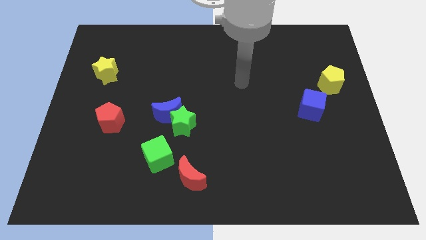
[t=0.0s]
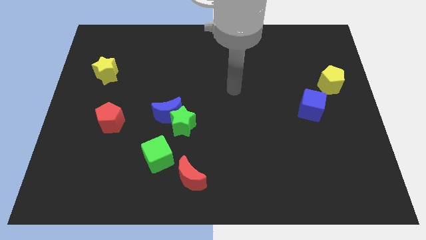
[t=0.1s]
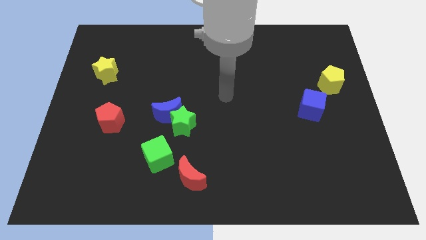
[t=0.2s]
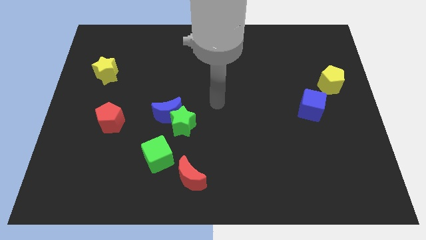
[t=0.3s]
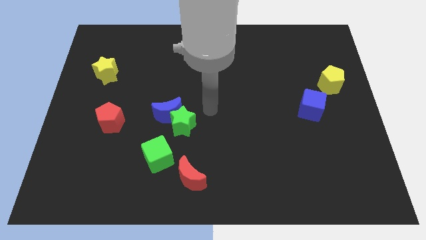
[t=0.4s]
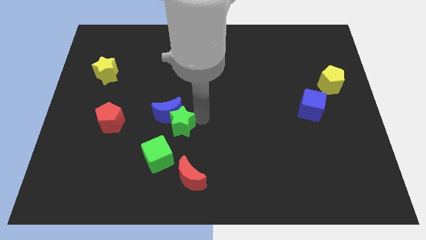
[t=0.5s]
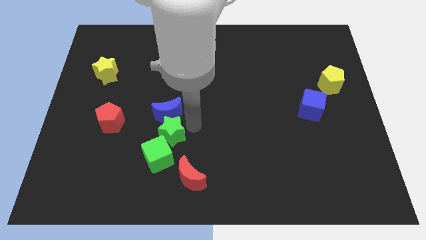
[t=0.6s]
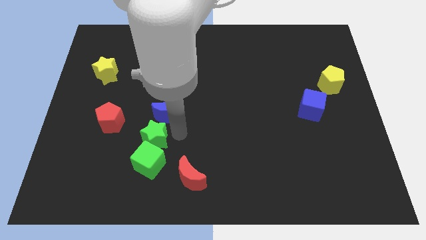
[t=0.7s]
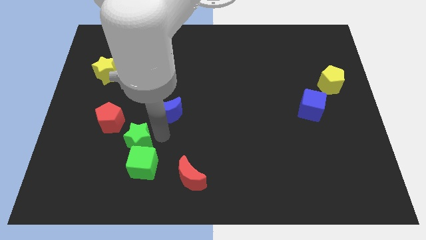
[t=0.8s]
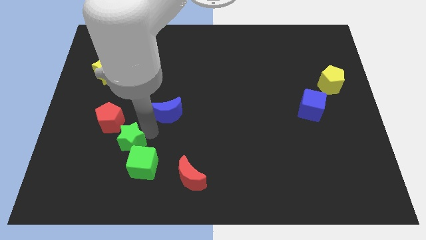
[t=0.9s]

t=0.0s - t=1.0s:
pull the blue moon apart from the green star

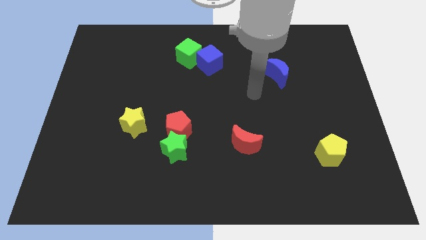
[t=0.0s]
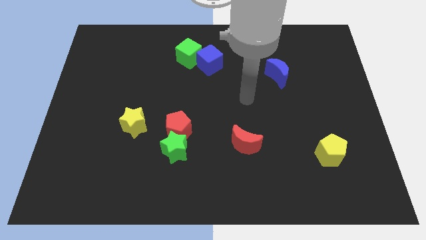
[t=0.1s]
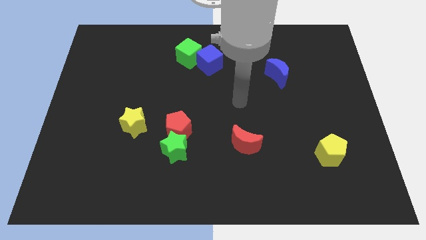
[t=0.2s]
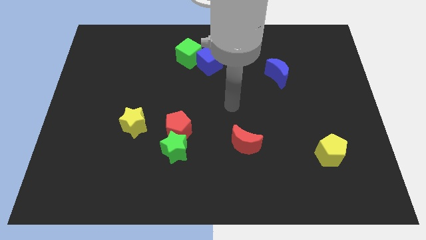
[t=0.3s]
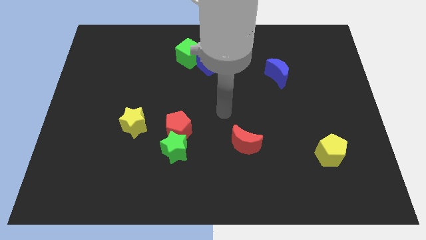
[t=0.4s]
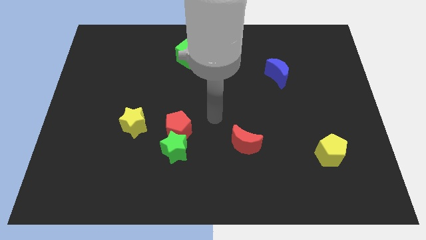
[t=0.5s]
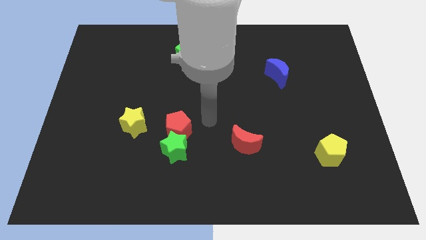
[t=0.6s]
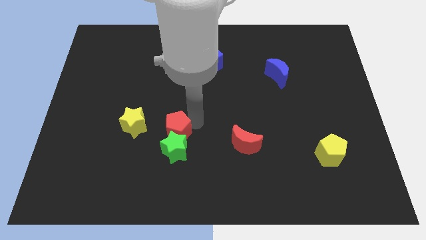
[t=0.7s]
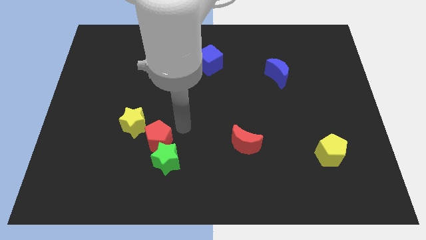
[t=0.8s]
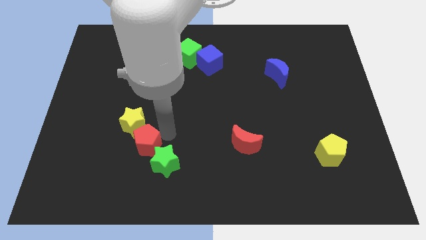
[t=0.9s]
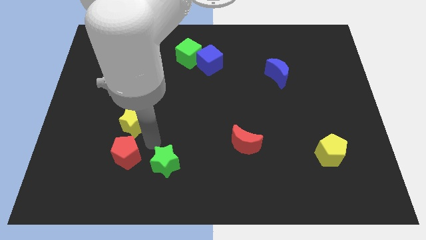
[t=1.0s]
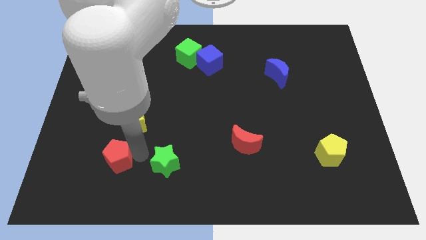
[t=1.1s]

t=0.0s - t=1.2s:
separate the green star from the red pentagon

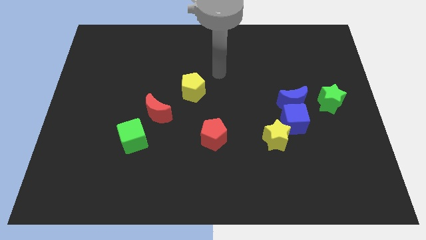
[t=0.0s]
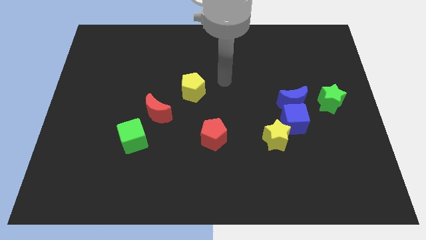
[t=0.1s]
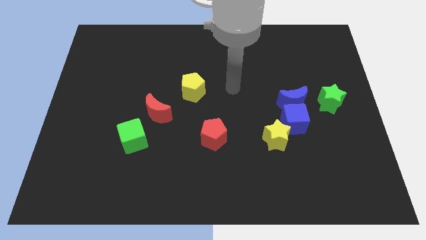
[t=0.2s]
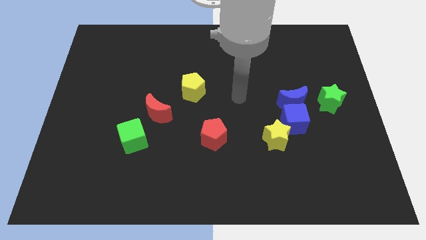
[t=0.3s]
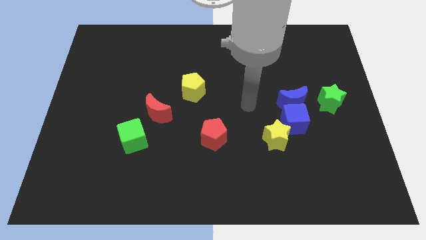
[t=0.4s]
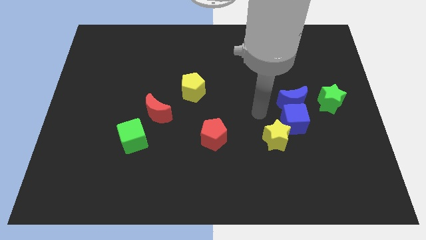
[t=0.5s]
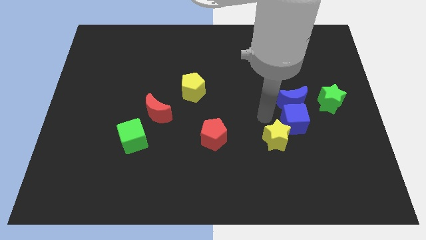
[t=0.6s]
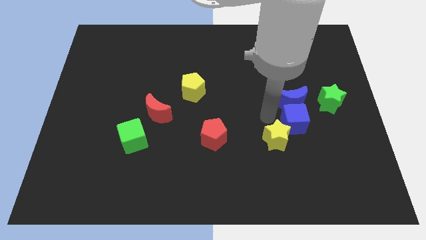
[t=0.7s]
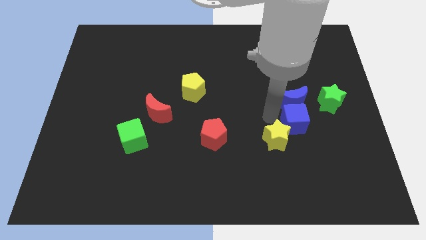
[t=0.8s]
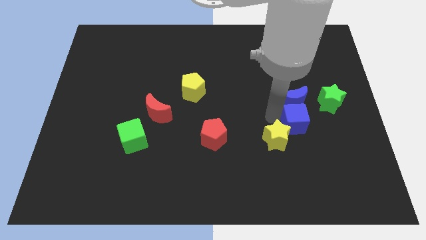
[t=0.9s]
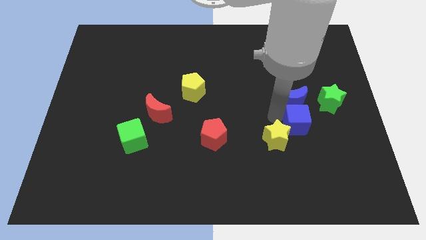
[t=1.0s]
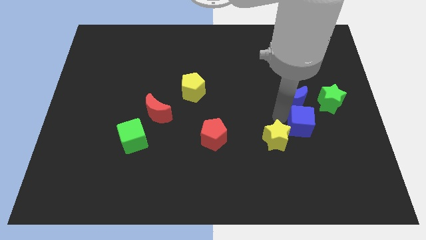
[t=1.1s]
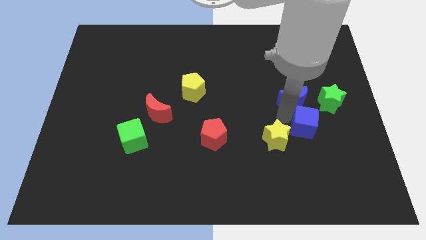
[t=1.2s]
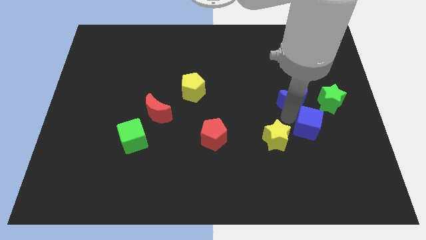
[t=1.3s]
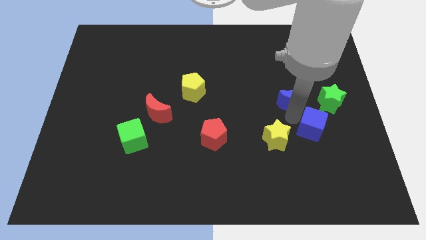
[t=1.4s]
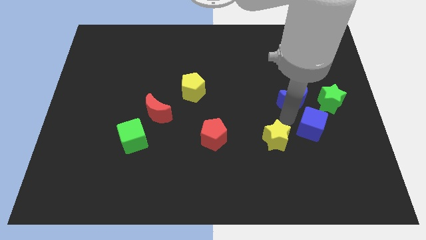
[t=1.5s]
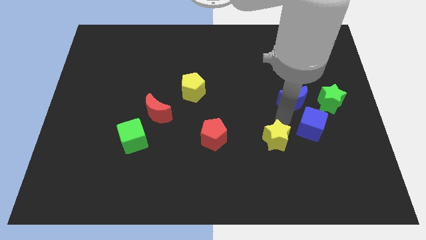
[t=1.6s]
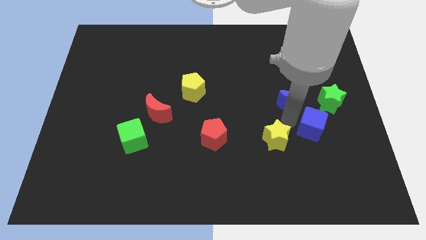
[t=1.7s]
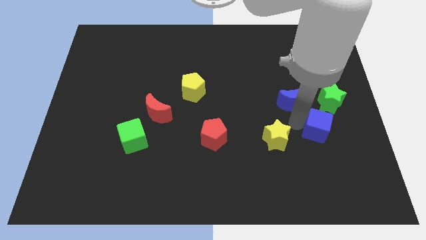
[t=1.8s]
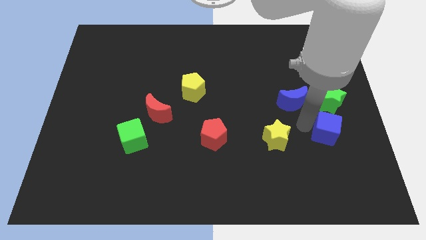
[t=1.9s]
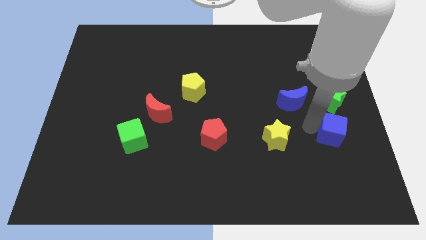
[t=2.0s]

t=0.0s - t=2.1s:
move the blue cube away from the blue moon and yellow star

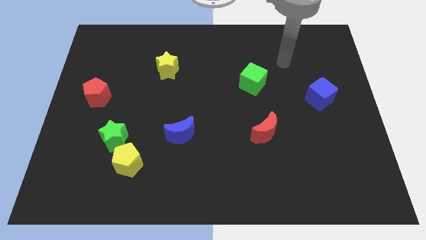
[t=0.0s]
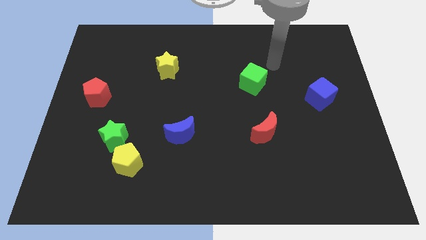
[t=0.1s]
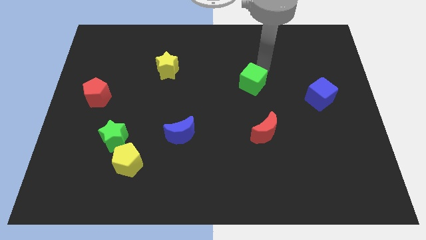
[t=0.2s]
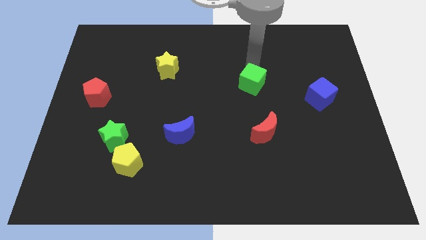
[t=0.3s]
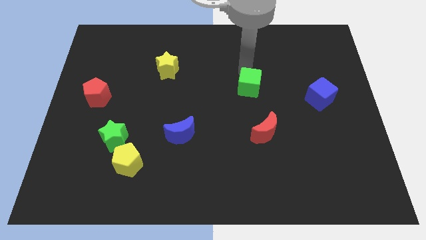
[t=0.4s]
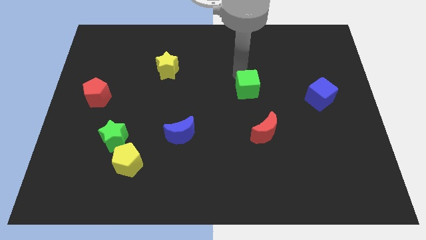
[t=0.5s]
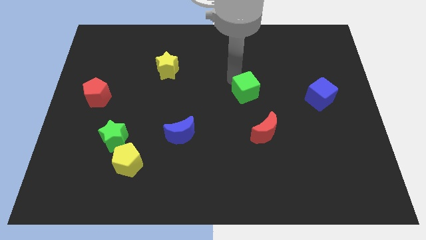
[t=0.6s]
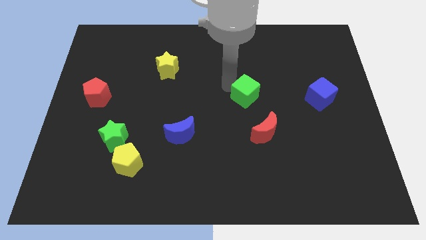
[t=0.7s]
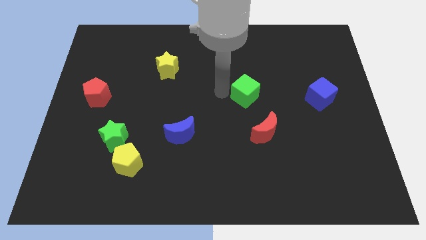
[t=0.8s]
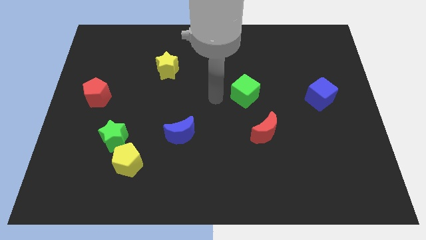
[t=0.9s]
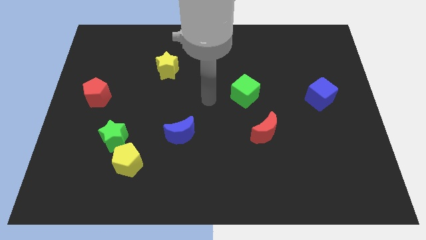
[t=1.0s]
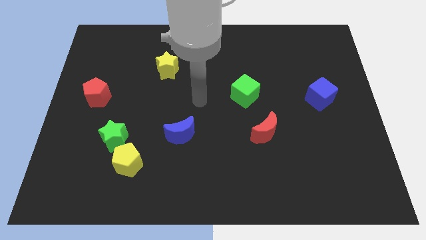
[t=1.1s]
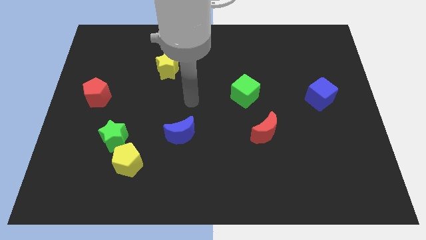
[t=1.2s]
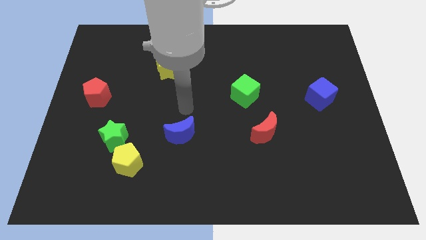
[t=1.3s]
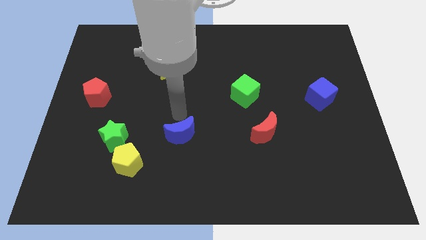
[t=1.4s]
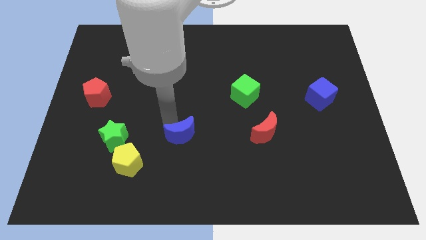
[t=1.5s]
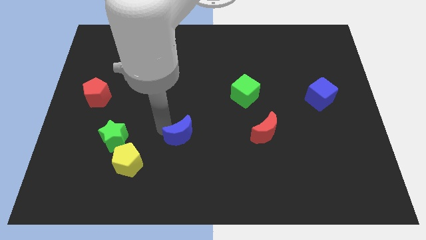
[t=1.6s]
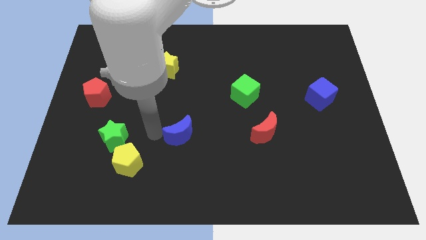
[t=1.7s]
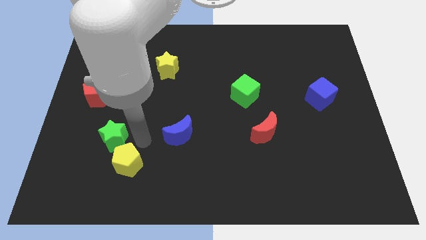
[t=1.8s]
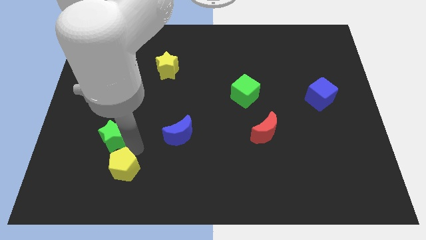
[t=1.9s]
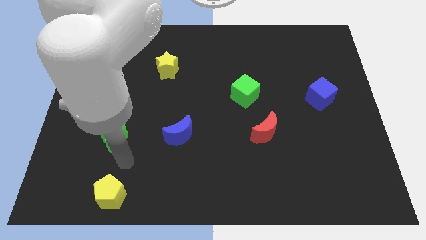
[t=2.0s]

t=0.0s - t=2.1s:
separate the green star from the yellow pentagon

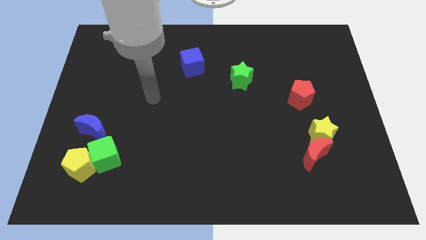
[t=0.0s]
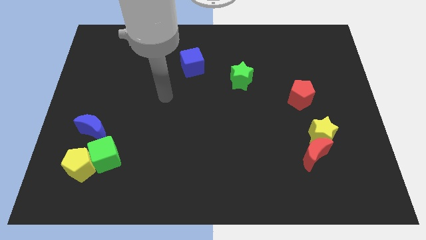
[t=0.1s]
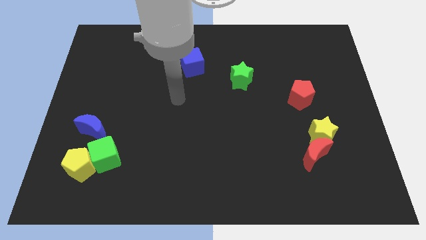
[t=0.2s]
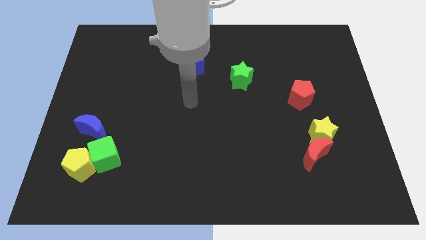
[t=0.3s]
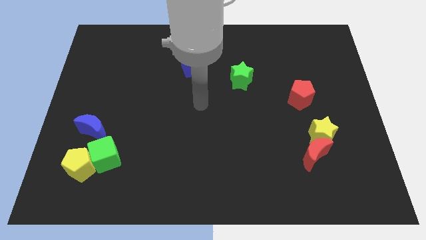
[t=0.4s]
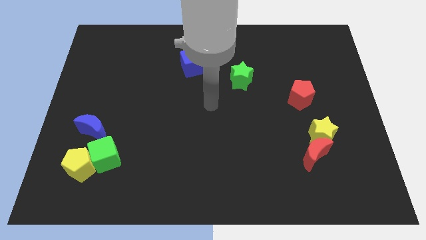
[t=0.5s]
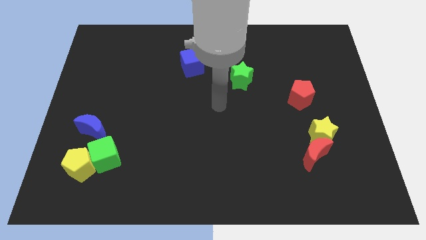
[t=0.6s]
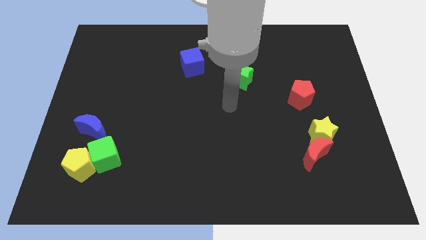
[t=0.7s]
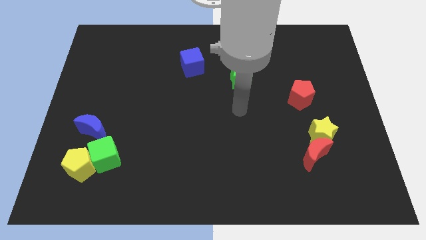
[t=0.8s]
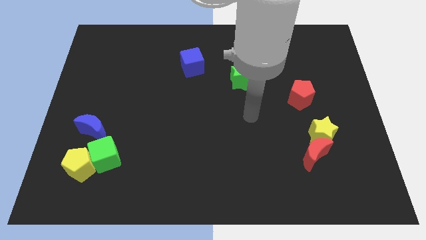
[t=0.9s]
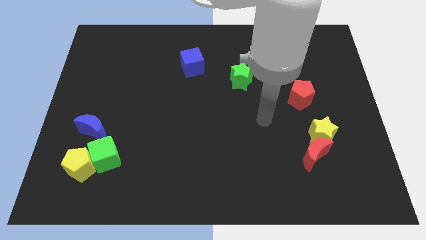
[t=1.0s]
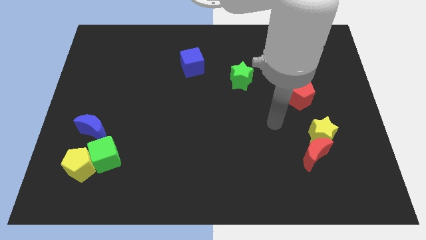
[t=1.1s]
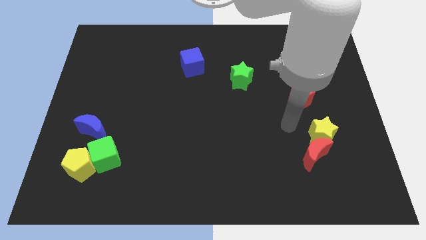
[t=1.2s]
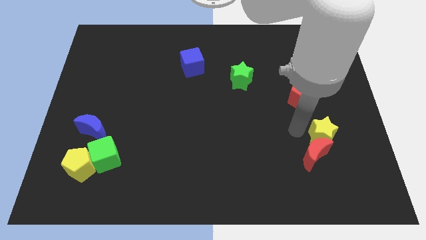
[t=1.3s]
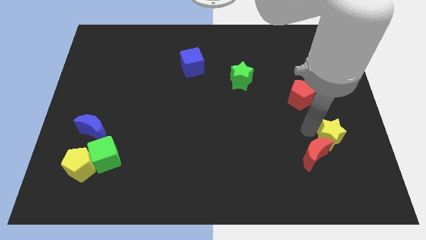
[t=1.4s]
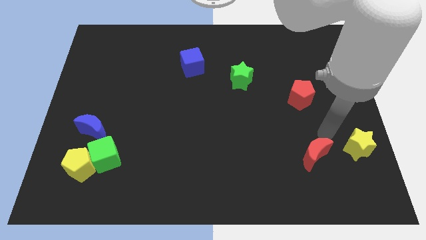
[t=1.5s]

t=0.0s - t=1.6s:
pull the red moon apart from the yellow star

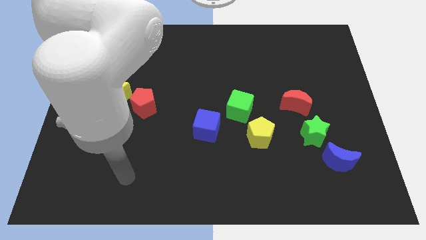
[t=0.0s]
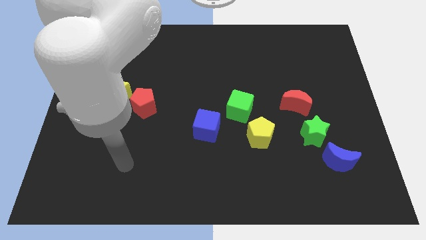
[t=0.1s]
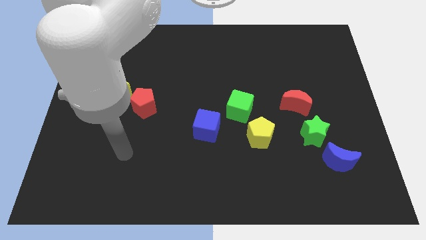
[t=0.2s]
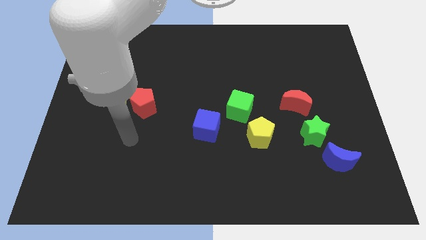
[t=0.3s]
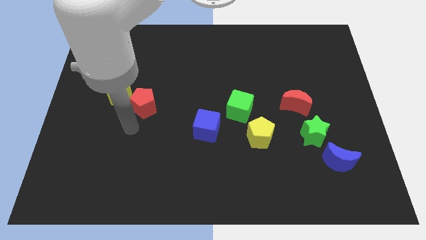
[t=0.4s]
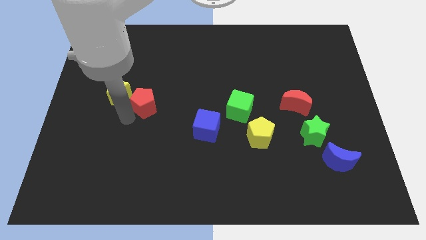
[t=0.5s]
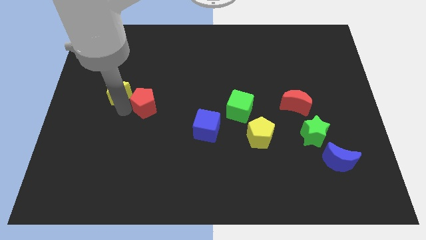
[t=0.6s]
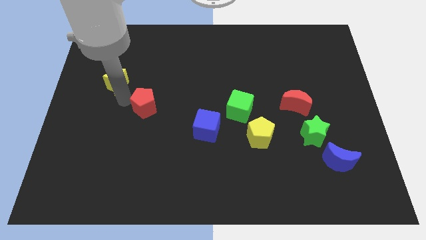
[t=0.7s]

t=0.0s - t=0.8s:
move the red pentagon away from the yellow star

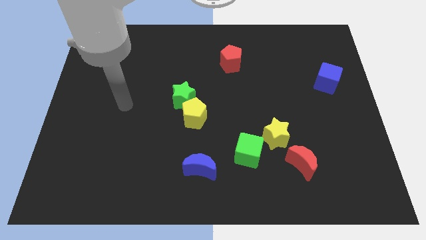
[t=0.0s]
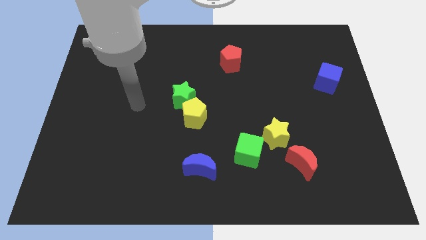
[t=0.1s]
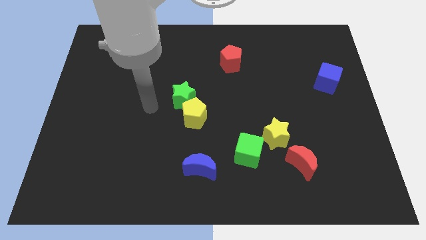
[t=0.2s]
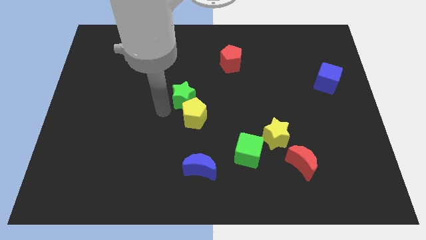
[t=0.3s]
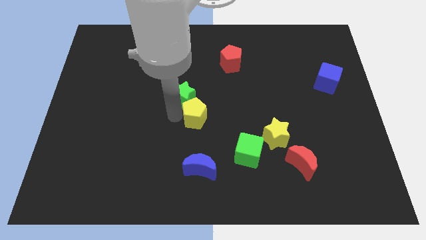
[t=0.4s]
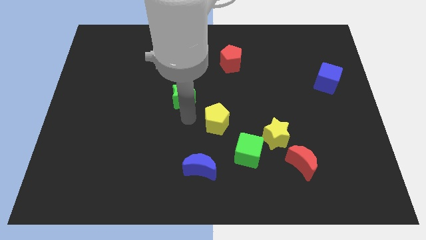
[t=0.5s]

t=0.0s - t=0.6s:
pull the green star apart from the yellow pentagon
